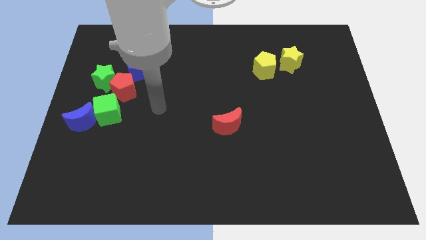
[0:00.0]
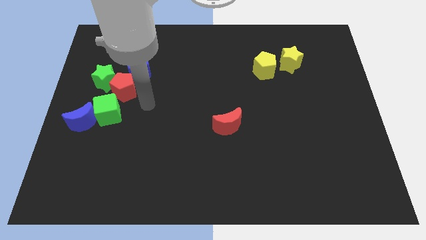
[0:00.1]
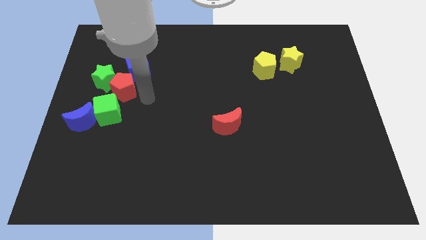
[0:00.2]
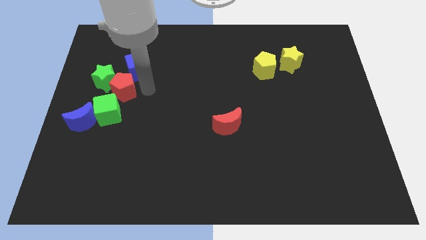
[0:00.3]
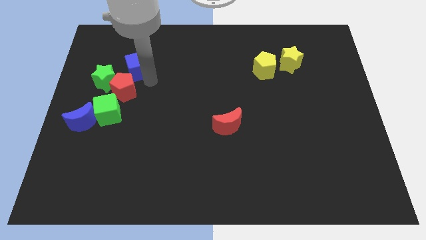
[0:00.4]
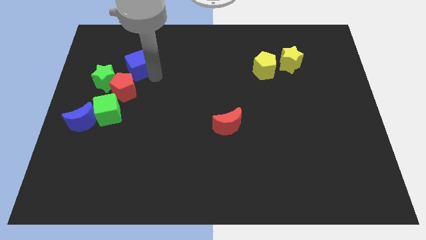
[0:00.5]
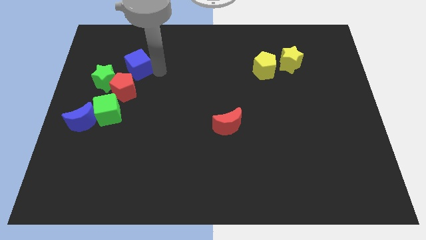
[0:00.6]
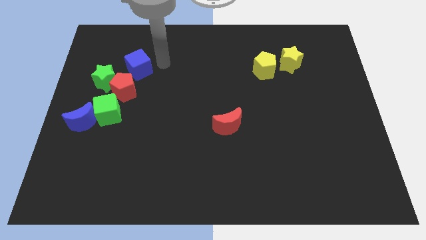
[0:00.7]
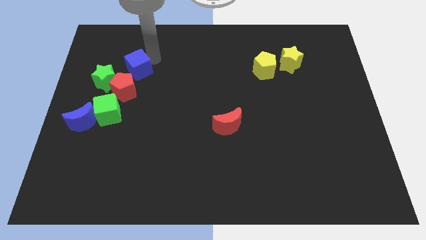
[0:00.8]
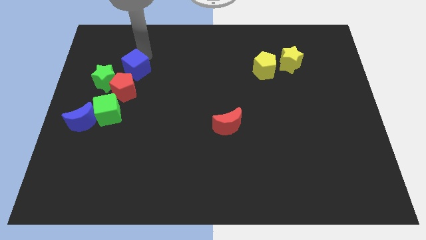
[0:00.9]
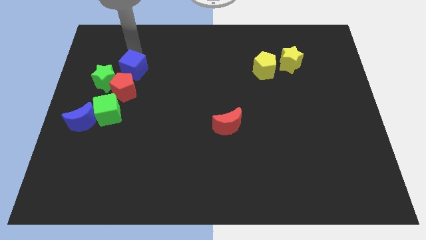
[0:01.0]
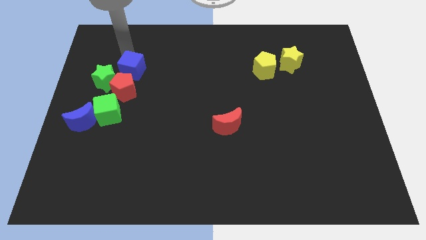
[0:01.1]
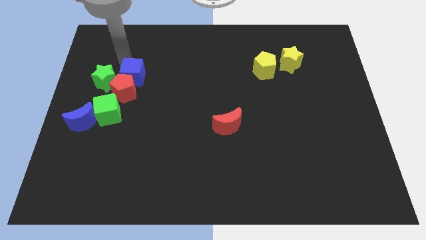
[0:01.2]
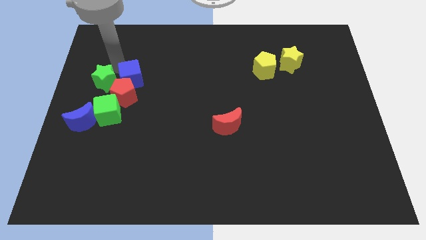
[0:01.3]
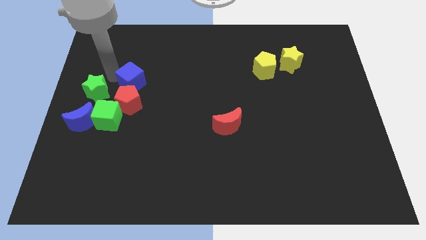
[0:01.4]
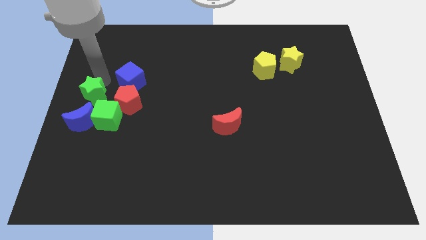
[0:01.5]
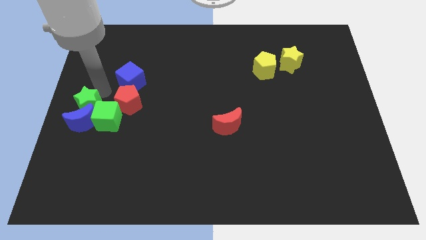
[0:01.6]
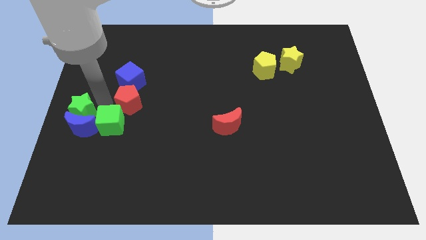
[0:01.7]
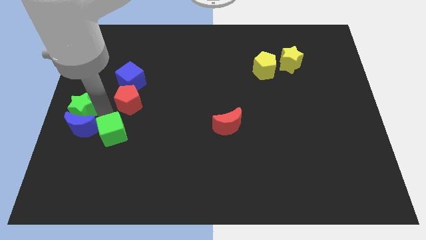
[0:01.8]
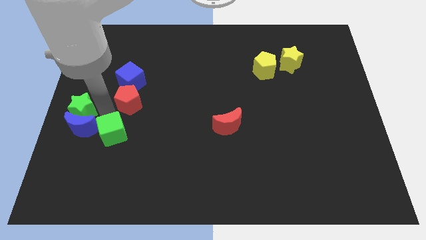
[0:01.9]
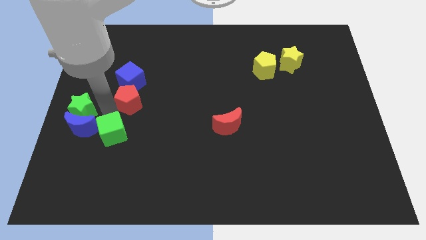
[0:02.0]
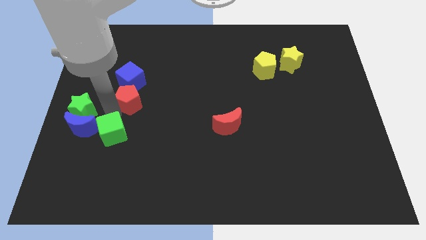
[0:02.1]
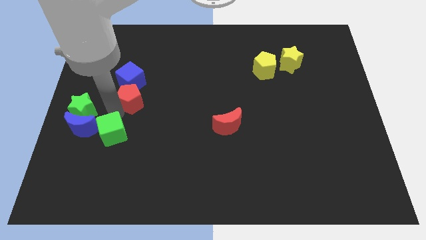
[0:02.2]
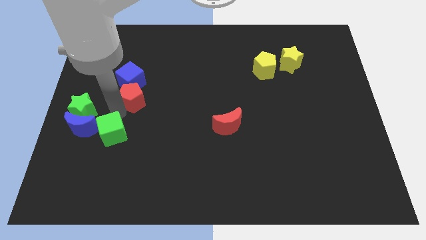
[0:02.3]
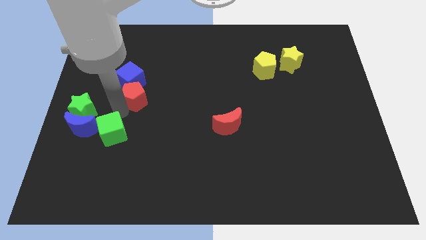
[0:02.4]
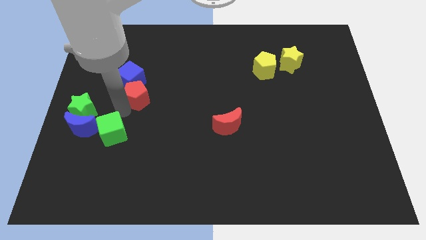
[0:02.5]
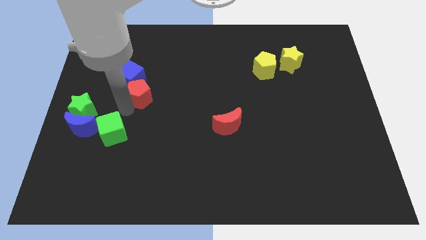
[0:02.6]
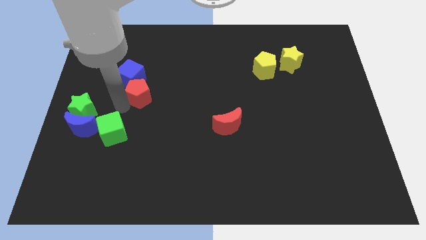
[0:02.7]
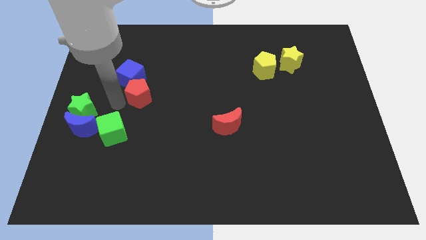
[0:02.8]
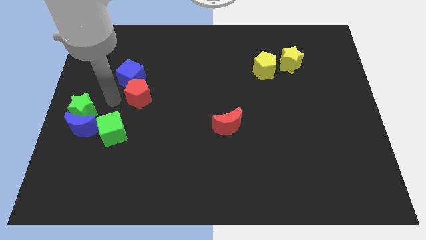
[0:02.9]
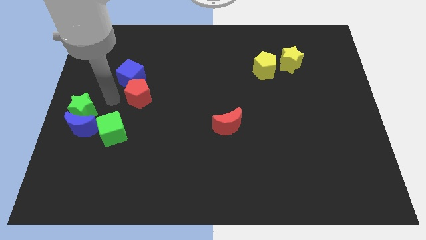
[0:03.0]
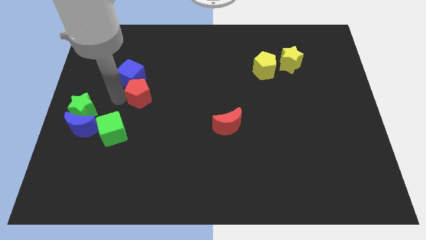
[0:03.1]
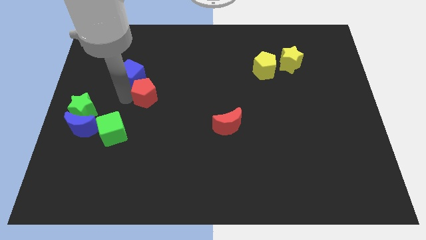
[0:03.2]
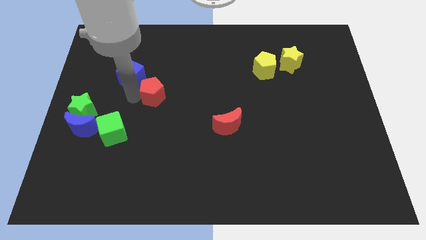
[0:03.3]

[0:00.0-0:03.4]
push the red pentagon a little bit to the right

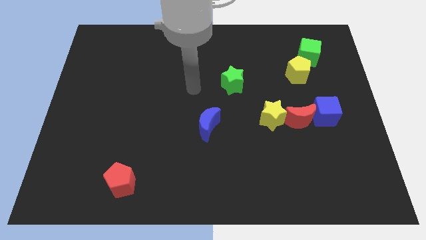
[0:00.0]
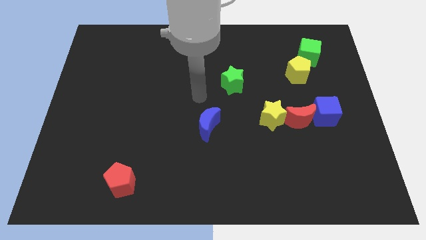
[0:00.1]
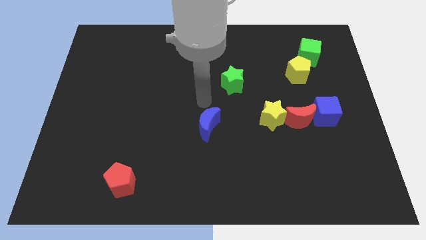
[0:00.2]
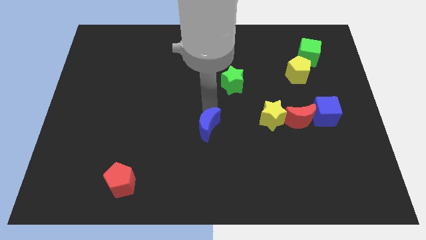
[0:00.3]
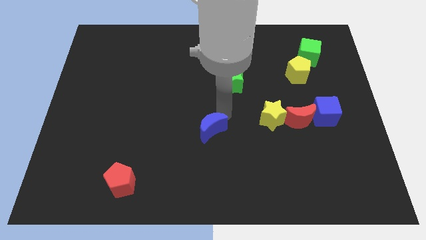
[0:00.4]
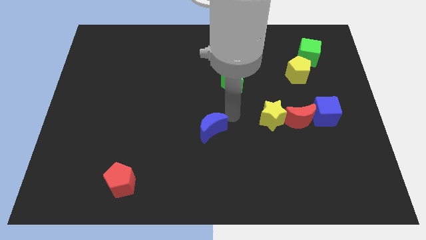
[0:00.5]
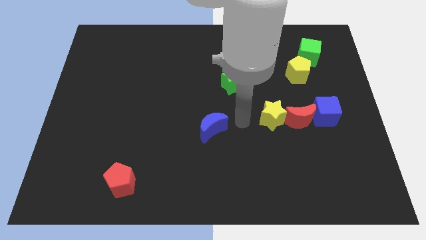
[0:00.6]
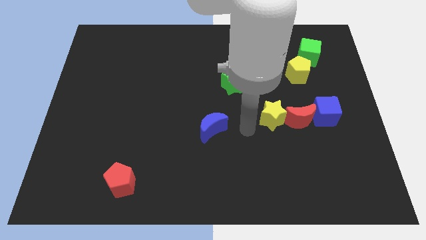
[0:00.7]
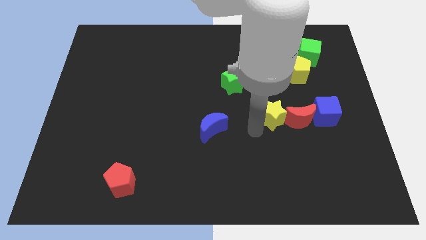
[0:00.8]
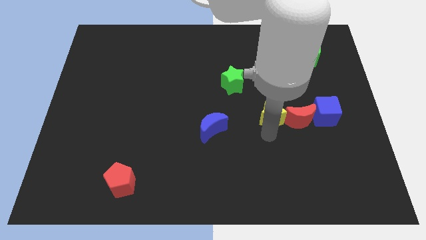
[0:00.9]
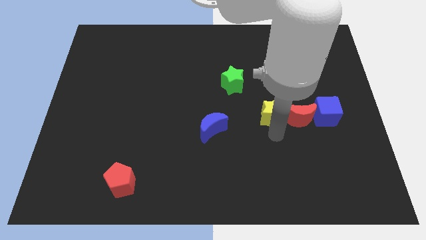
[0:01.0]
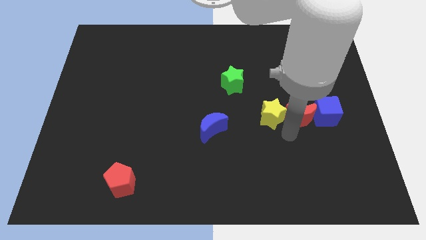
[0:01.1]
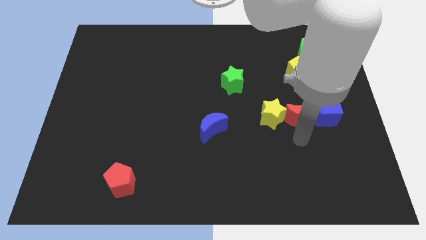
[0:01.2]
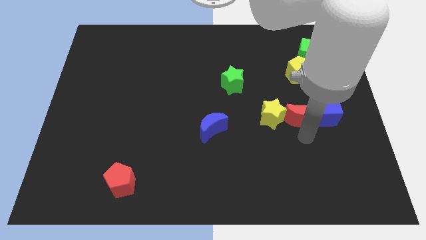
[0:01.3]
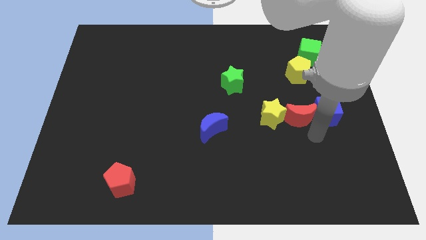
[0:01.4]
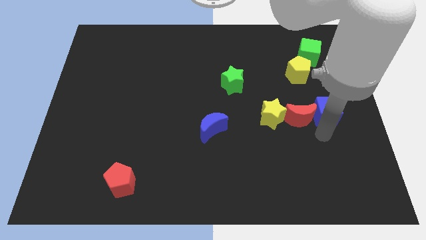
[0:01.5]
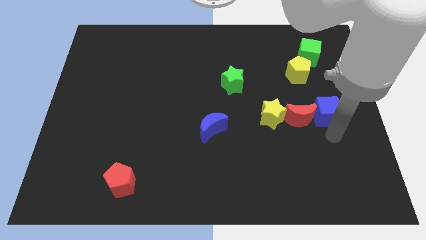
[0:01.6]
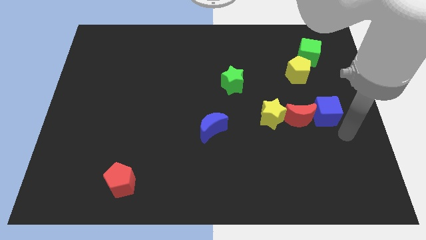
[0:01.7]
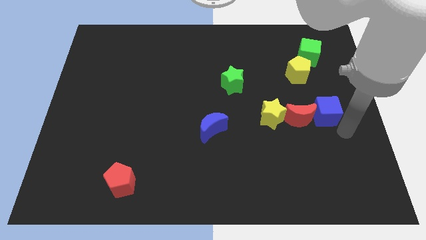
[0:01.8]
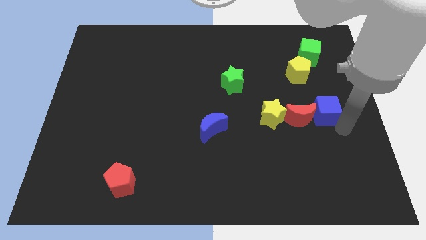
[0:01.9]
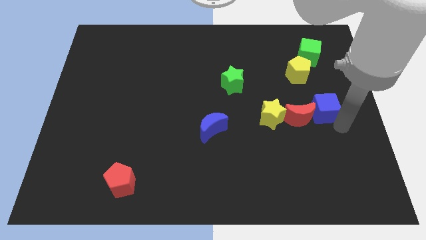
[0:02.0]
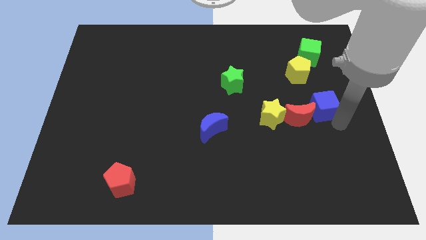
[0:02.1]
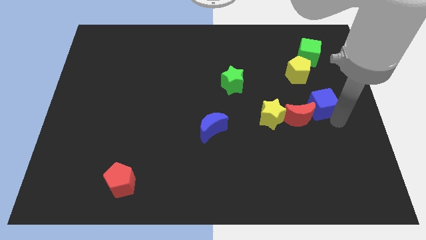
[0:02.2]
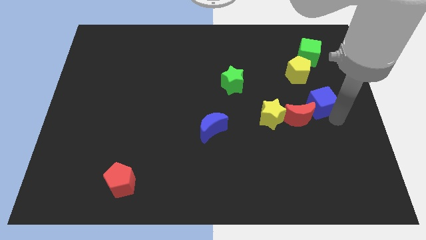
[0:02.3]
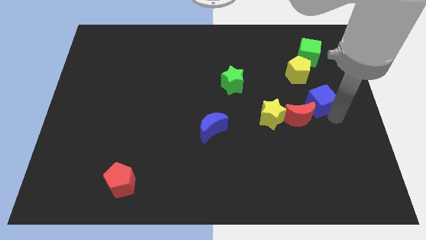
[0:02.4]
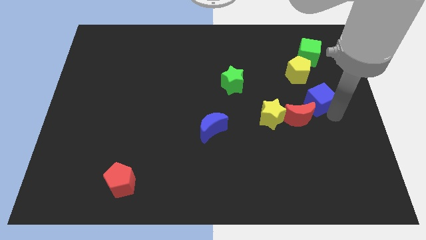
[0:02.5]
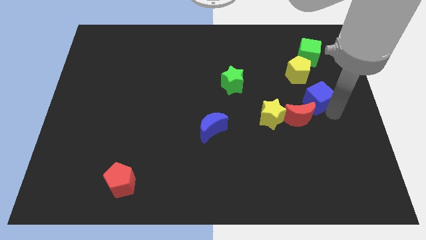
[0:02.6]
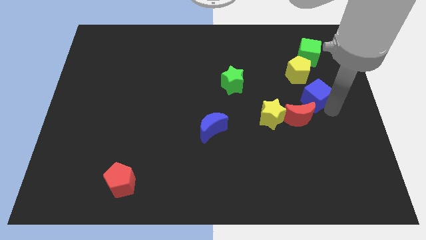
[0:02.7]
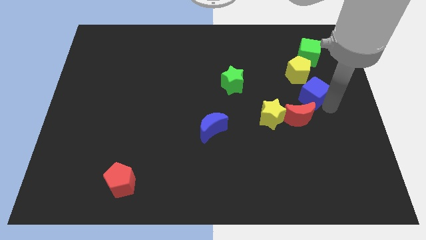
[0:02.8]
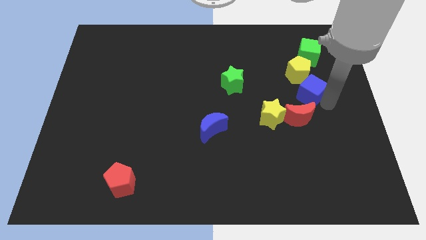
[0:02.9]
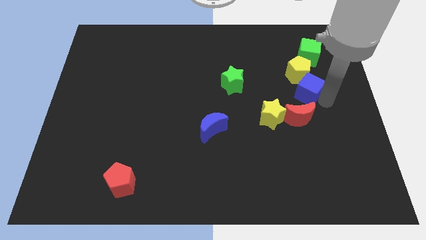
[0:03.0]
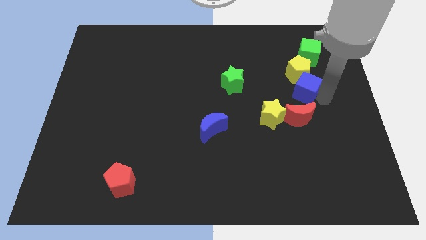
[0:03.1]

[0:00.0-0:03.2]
slide the blue cube up and then left slightly

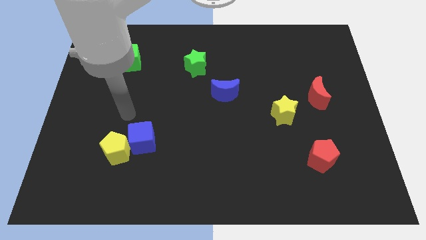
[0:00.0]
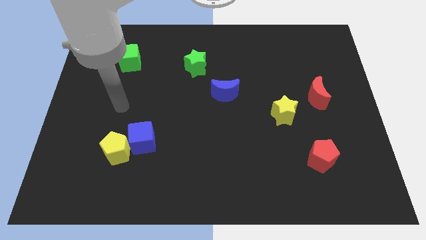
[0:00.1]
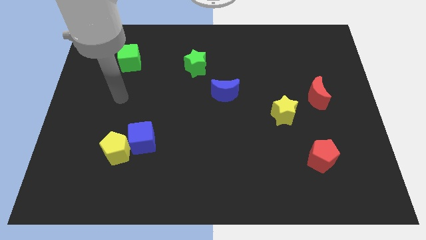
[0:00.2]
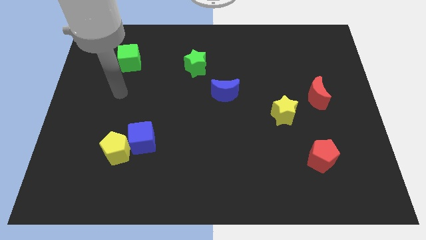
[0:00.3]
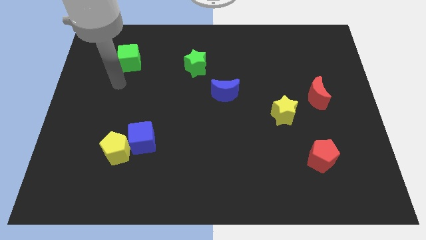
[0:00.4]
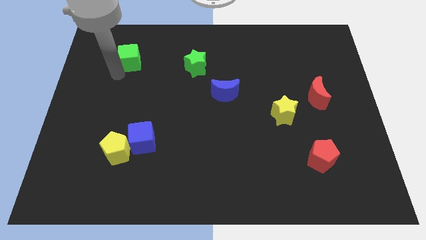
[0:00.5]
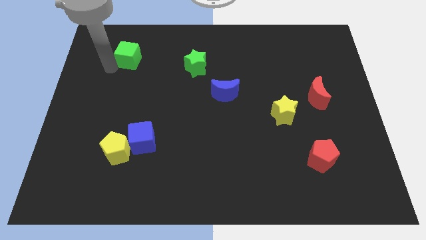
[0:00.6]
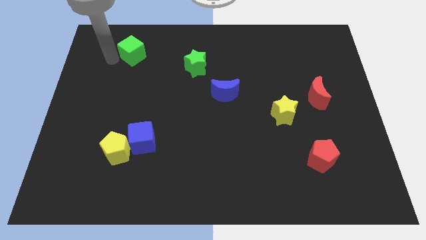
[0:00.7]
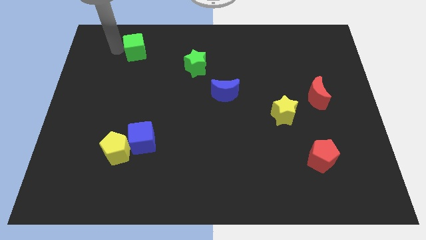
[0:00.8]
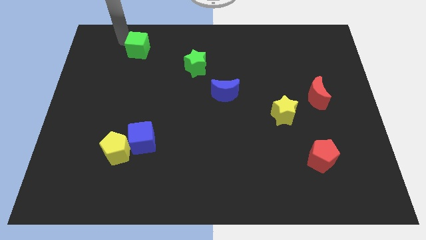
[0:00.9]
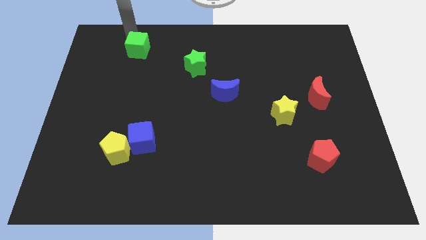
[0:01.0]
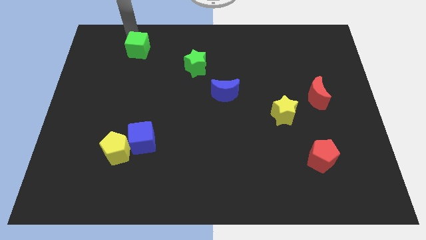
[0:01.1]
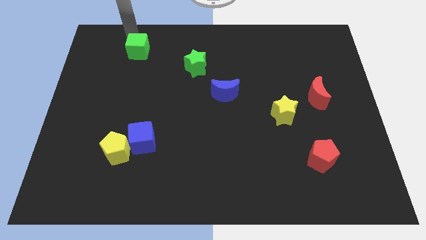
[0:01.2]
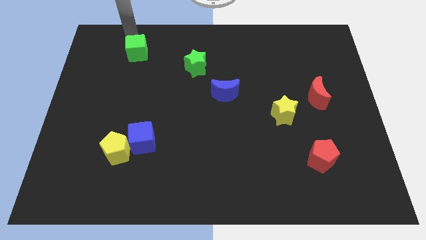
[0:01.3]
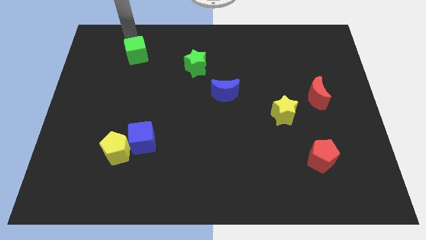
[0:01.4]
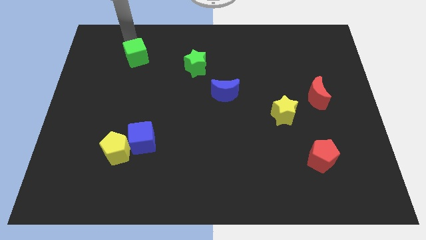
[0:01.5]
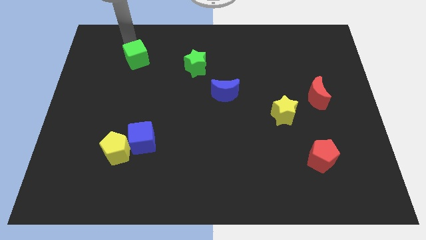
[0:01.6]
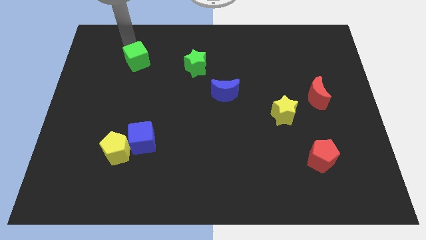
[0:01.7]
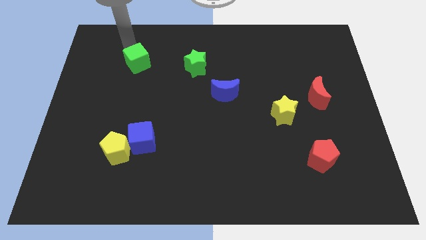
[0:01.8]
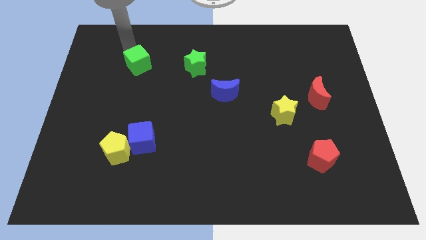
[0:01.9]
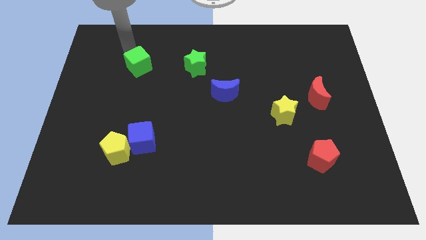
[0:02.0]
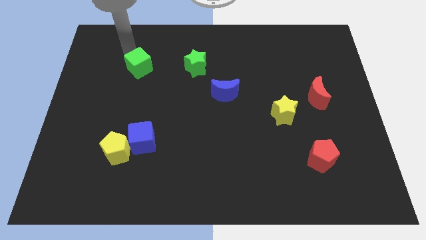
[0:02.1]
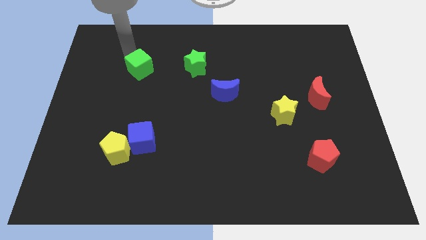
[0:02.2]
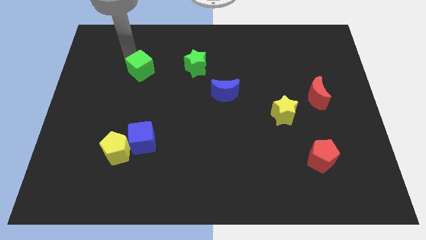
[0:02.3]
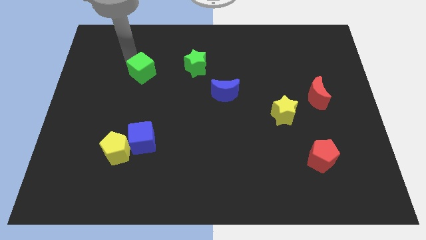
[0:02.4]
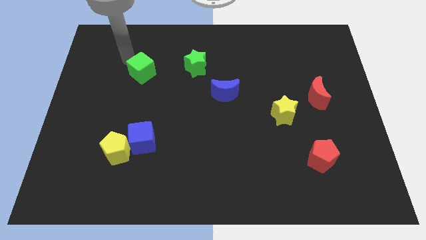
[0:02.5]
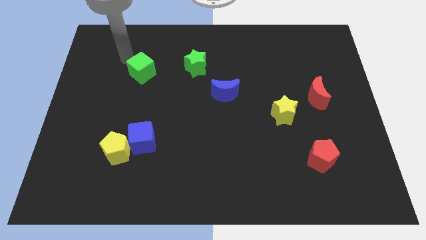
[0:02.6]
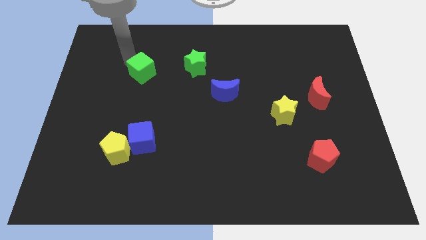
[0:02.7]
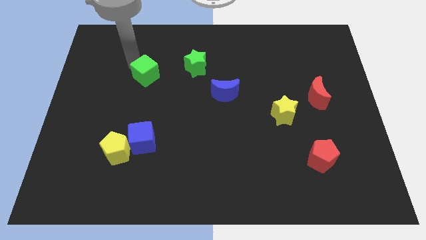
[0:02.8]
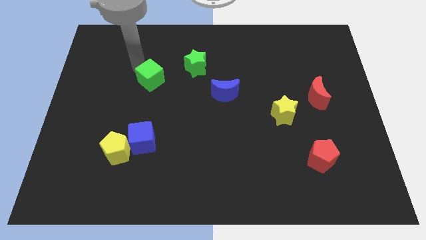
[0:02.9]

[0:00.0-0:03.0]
slide the green cube downwards and to the right somewhat
